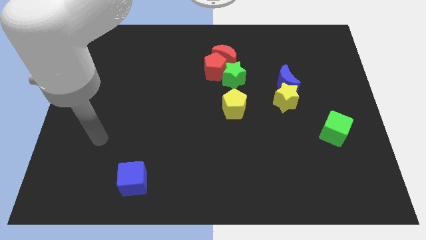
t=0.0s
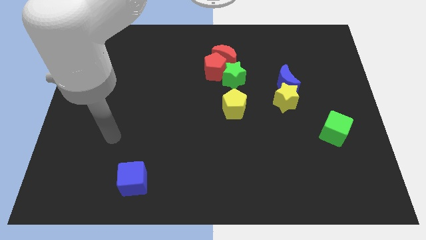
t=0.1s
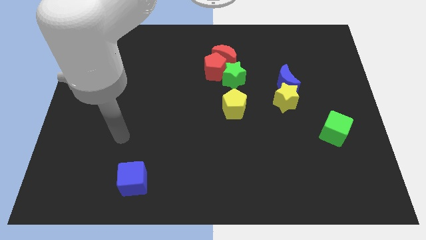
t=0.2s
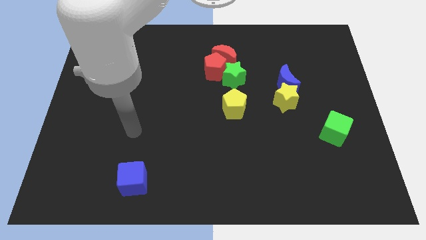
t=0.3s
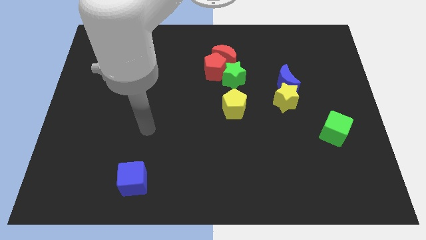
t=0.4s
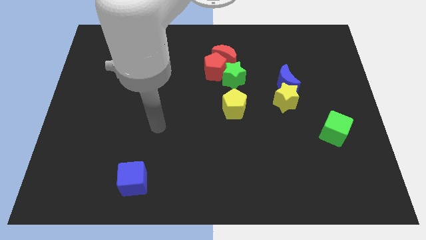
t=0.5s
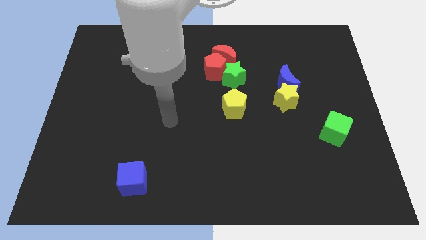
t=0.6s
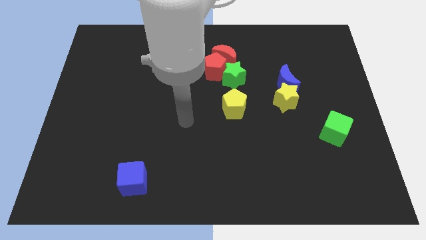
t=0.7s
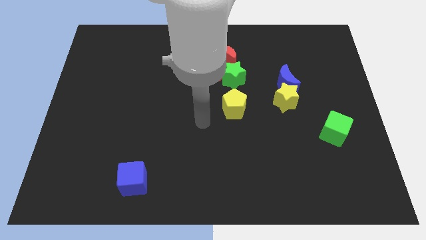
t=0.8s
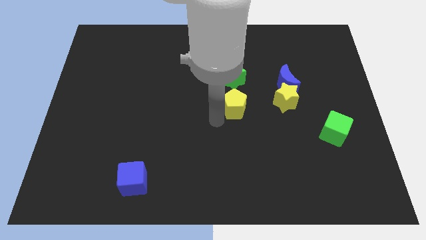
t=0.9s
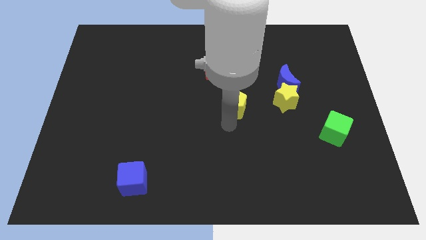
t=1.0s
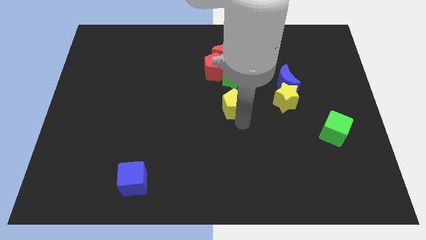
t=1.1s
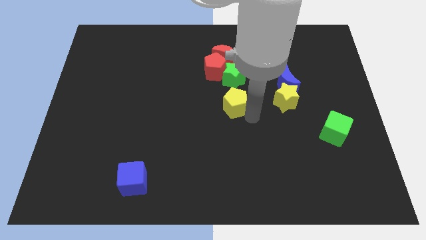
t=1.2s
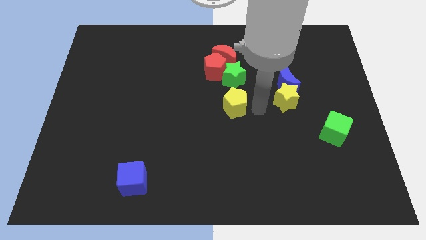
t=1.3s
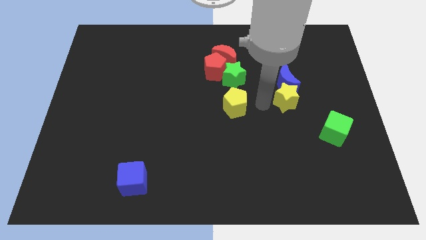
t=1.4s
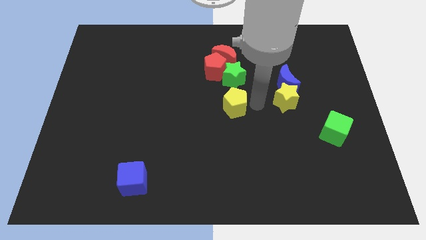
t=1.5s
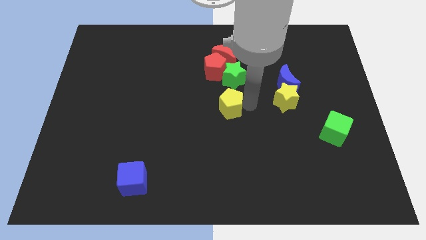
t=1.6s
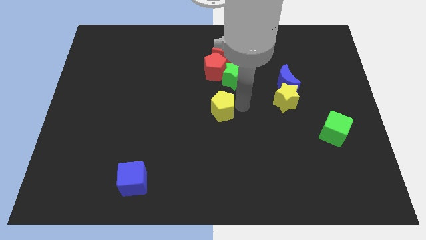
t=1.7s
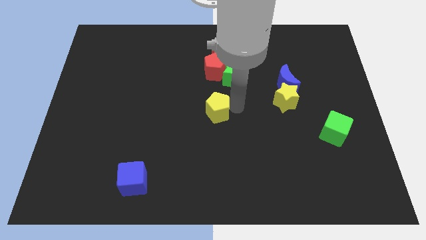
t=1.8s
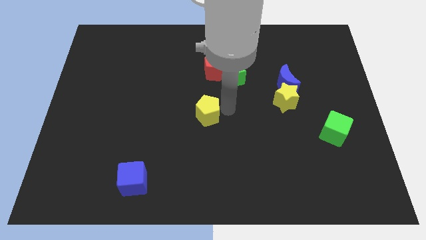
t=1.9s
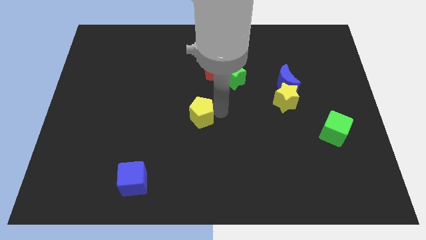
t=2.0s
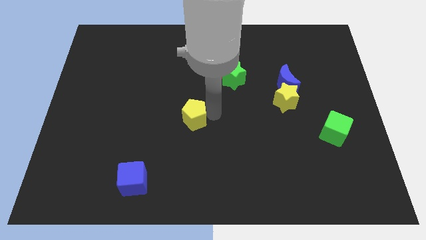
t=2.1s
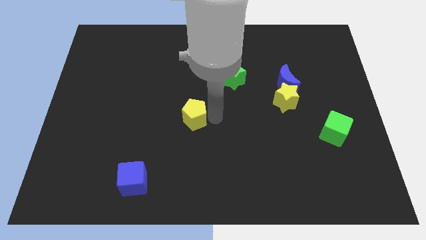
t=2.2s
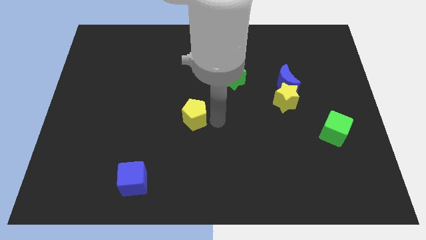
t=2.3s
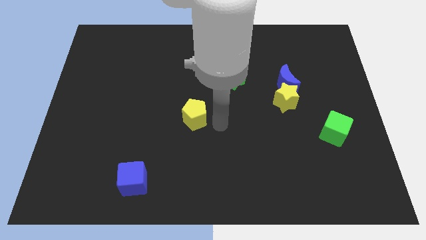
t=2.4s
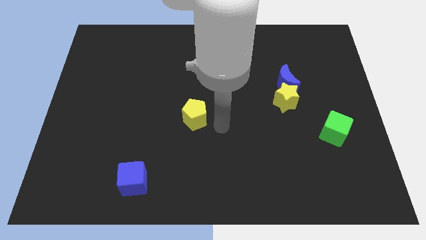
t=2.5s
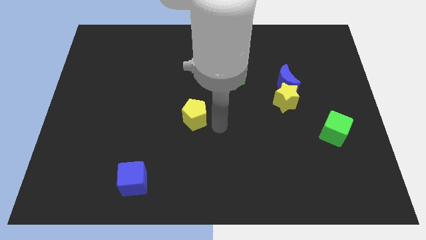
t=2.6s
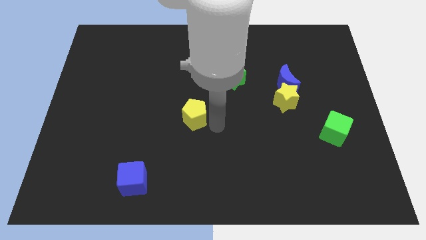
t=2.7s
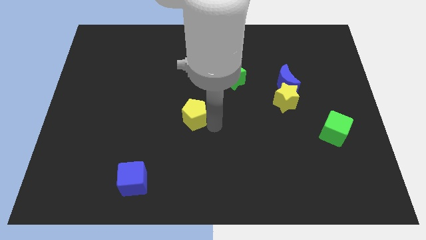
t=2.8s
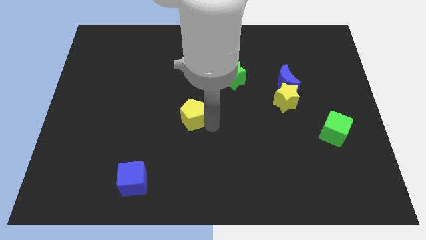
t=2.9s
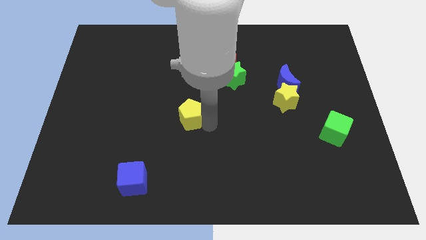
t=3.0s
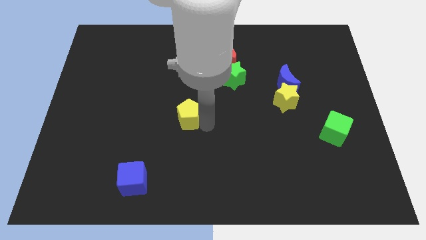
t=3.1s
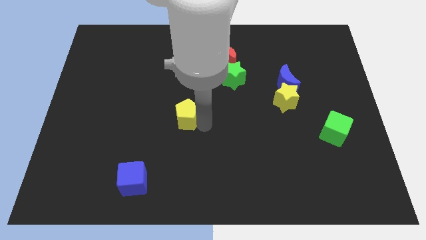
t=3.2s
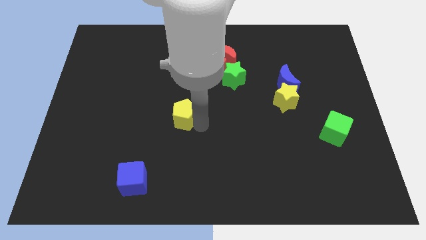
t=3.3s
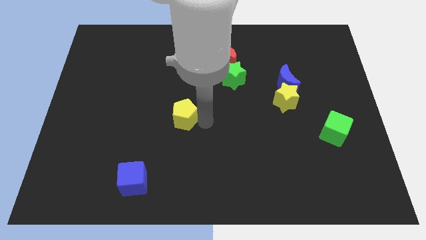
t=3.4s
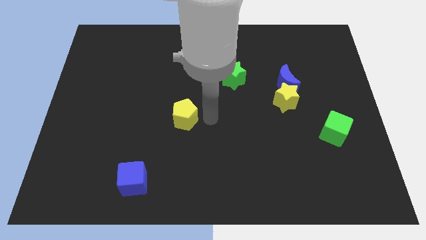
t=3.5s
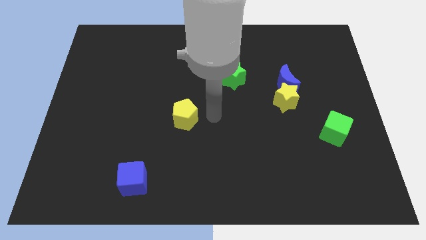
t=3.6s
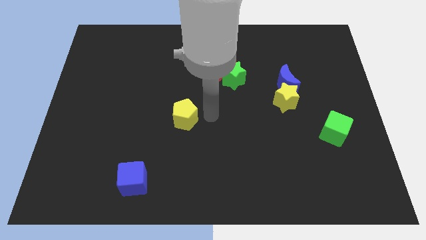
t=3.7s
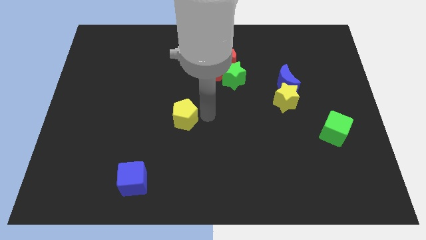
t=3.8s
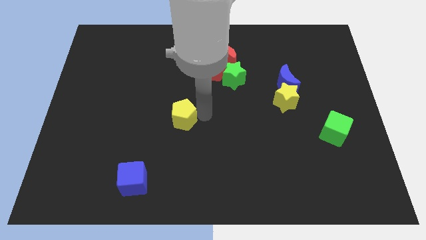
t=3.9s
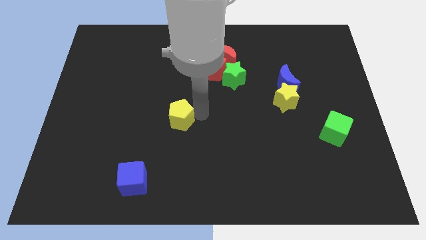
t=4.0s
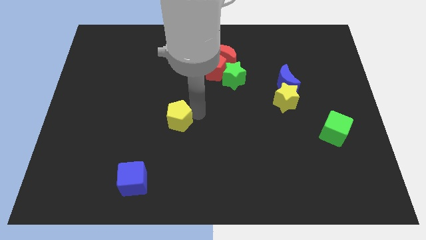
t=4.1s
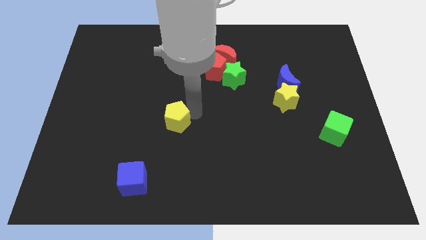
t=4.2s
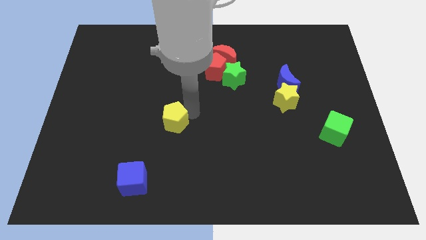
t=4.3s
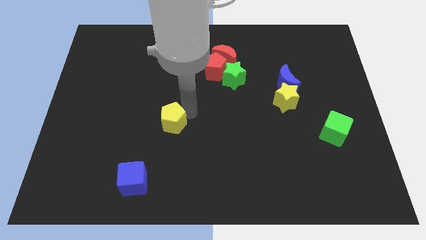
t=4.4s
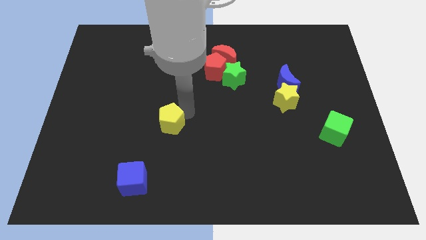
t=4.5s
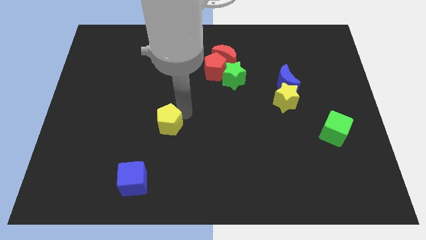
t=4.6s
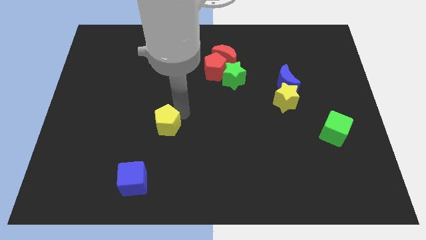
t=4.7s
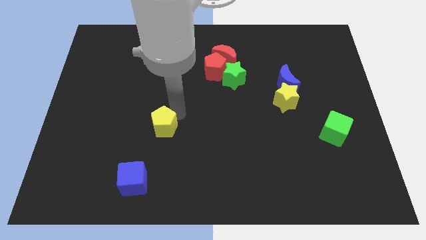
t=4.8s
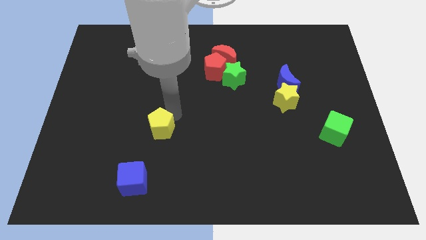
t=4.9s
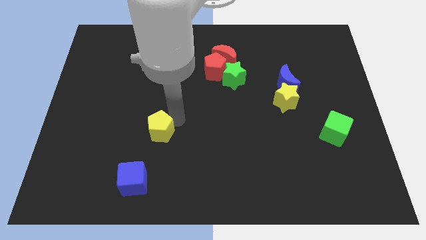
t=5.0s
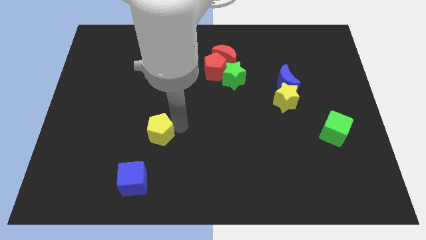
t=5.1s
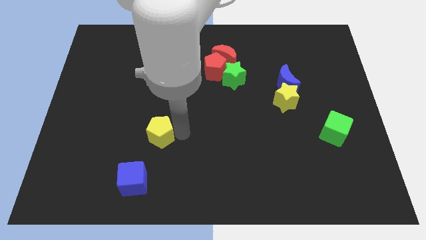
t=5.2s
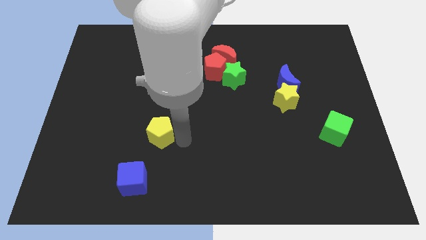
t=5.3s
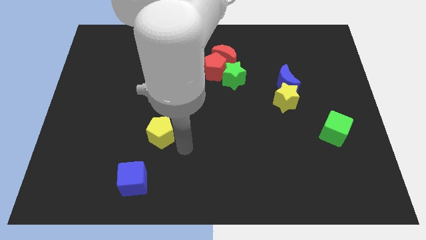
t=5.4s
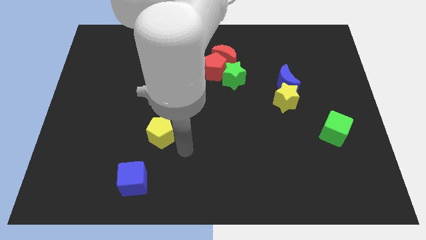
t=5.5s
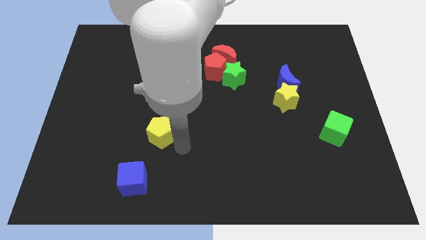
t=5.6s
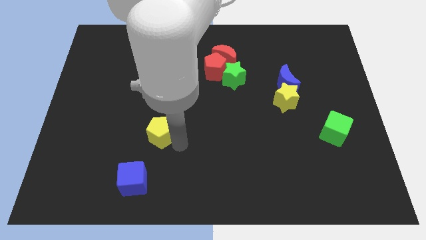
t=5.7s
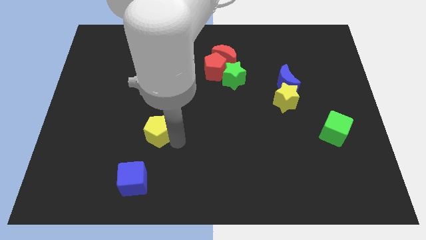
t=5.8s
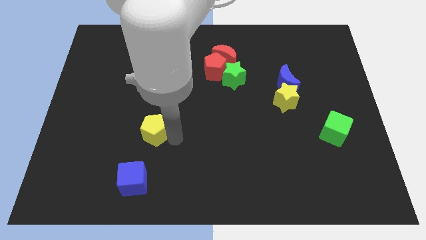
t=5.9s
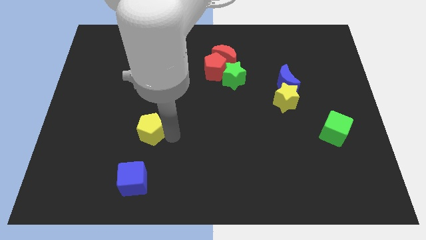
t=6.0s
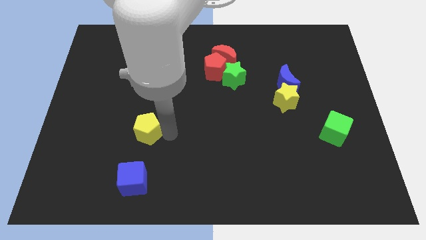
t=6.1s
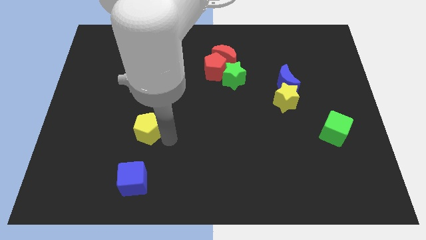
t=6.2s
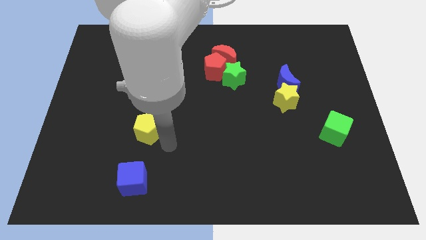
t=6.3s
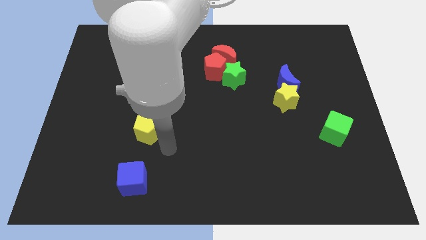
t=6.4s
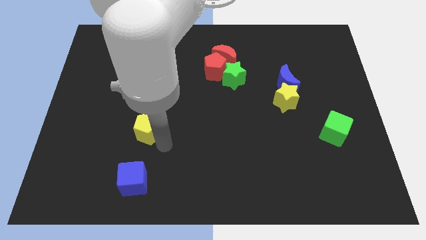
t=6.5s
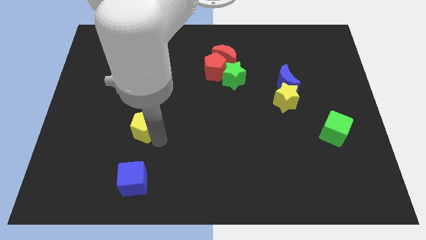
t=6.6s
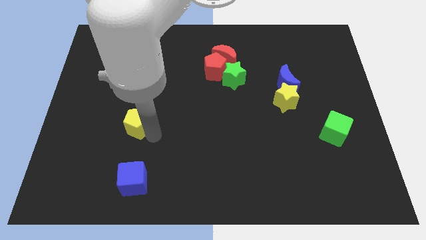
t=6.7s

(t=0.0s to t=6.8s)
move the yellow pentagon left

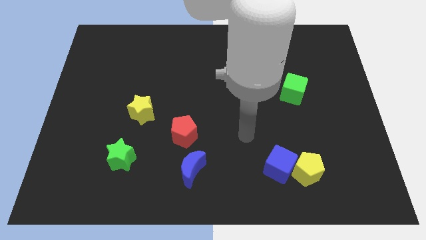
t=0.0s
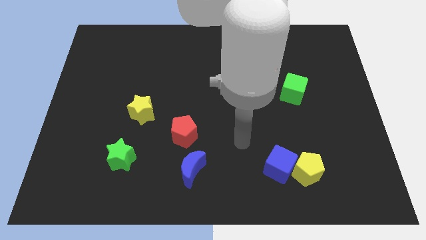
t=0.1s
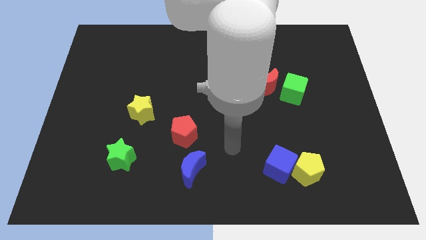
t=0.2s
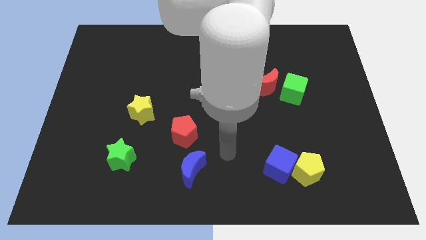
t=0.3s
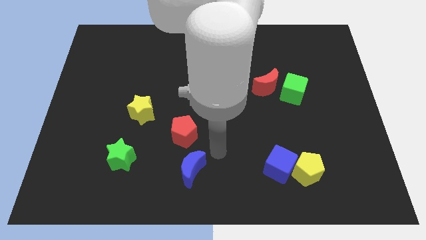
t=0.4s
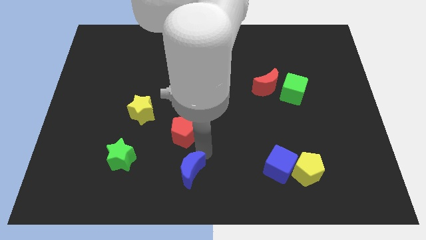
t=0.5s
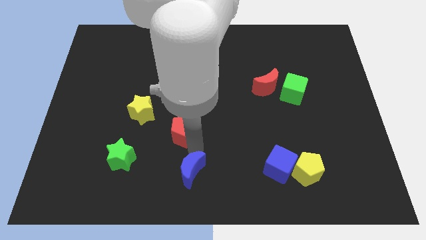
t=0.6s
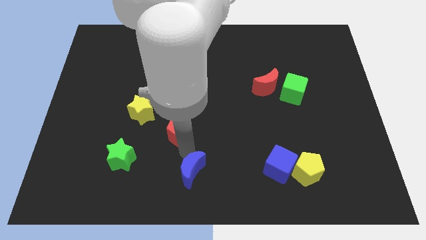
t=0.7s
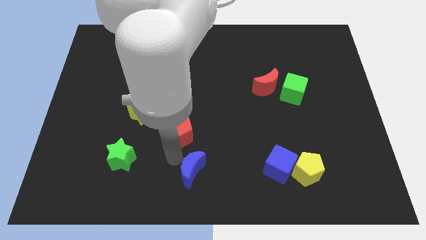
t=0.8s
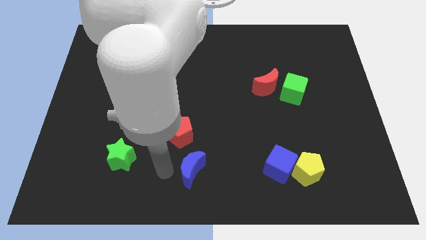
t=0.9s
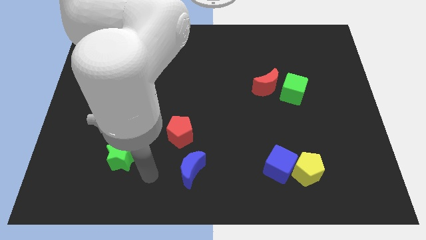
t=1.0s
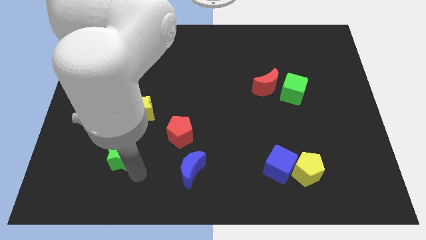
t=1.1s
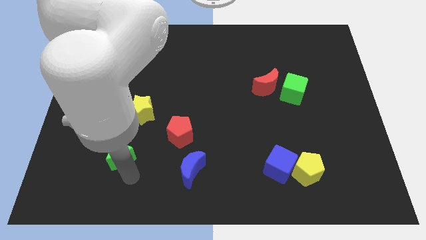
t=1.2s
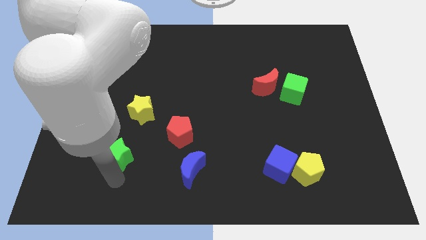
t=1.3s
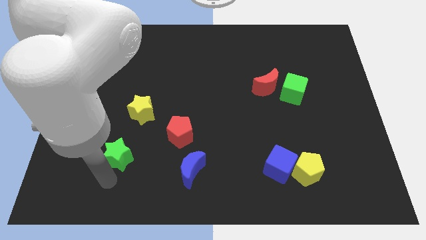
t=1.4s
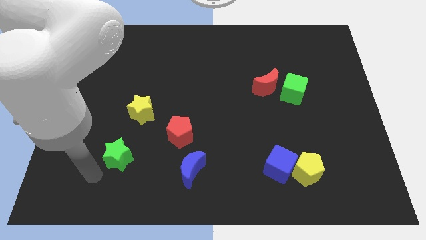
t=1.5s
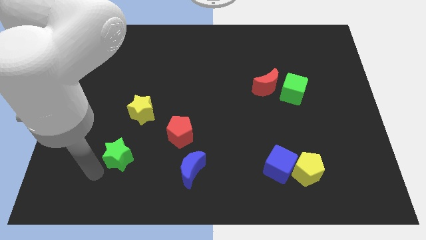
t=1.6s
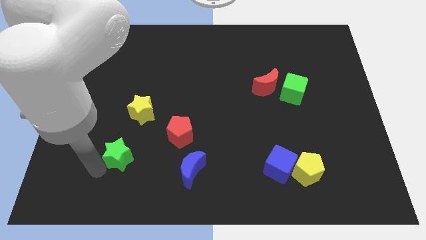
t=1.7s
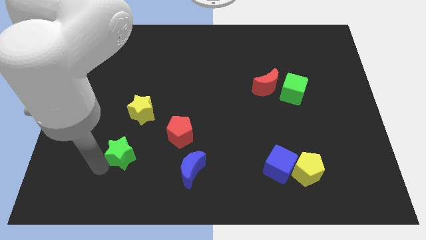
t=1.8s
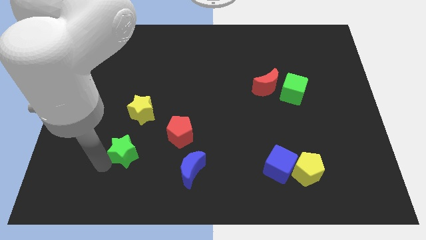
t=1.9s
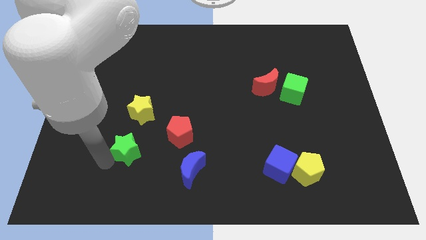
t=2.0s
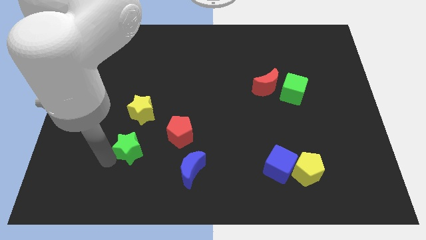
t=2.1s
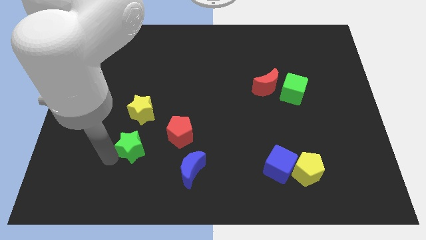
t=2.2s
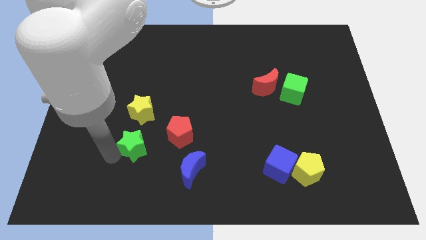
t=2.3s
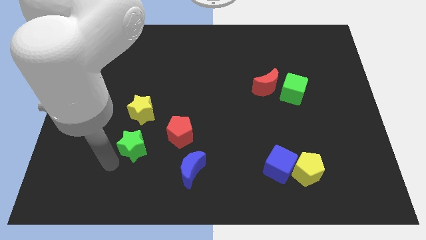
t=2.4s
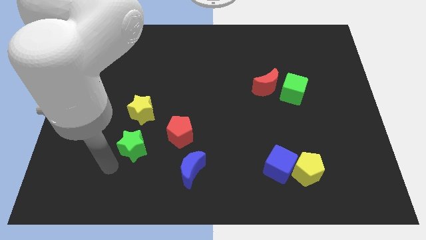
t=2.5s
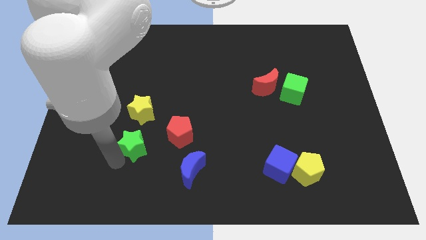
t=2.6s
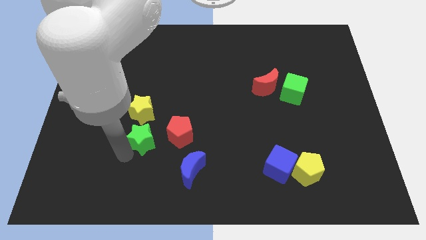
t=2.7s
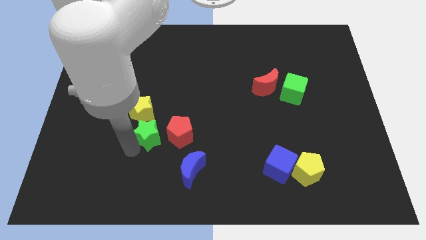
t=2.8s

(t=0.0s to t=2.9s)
push the green star diagonally upwards and right a bit
